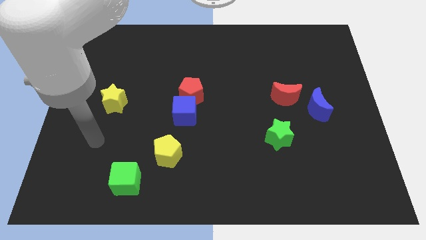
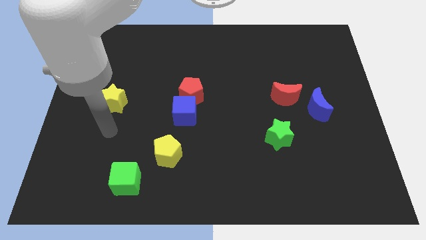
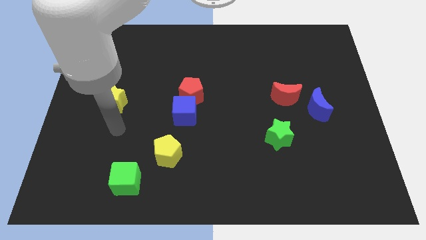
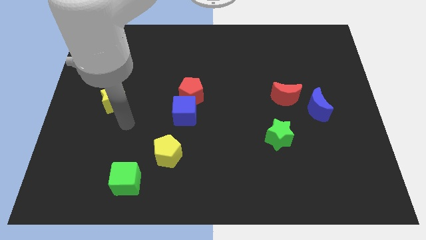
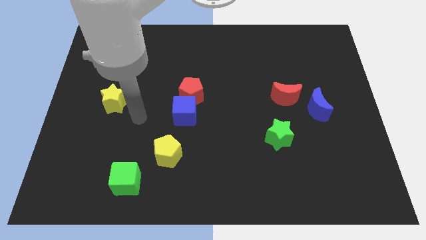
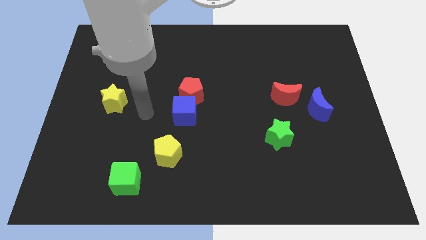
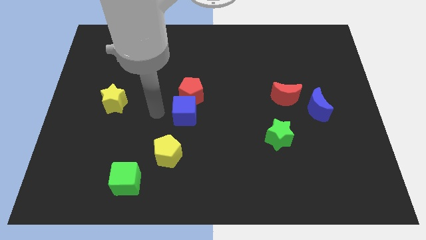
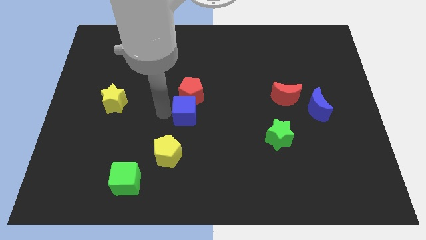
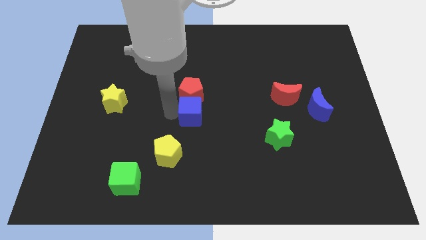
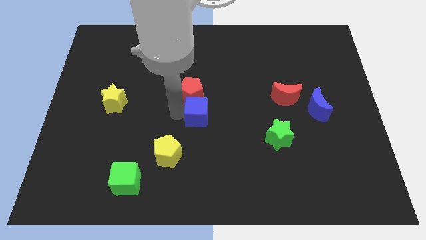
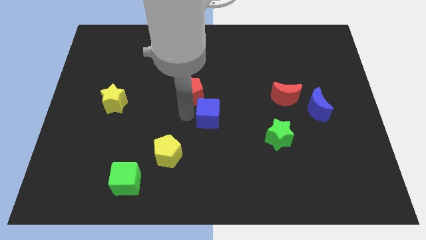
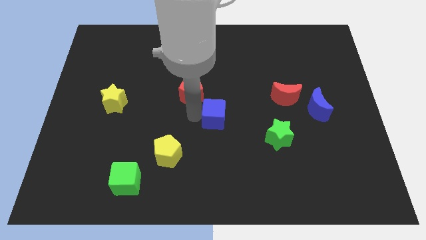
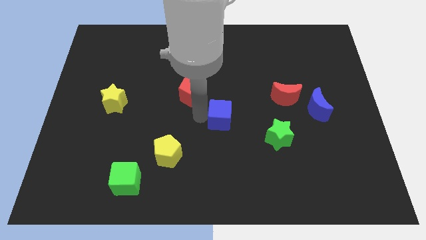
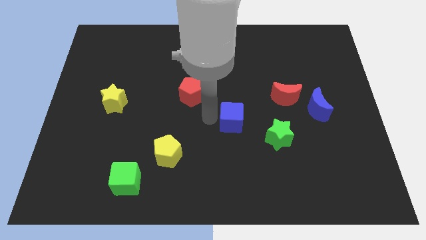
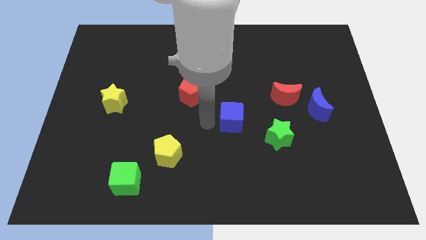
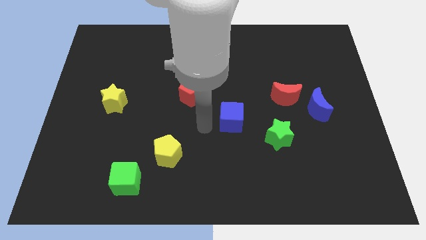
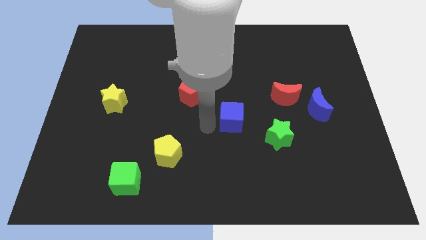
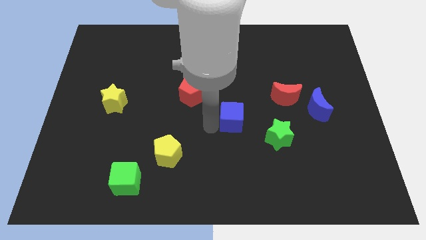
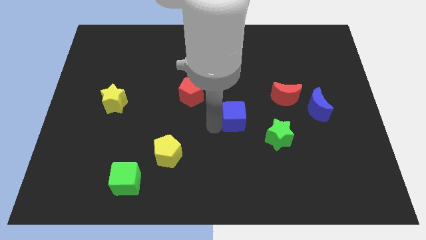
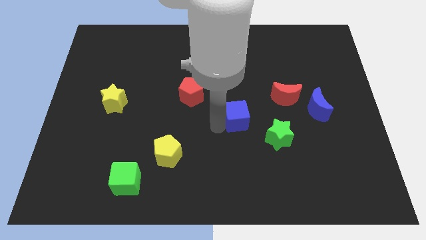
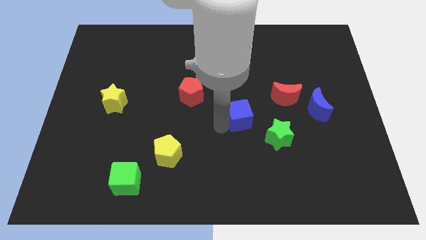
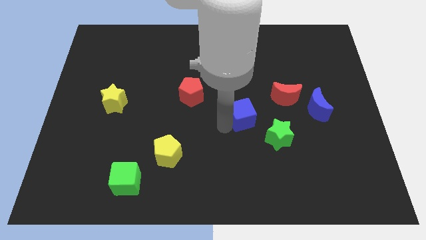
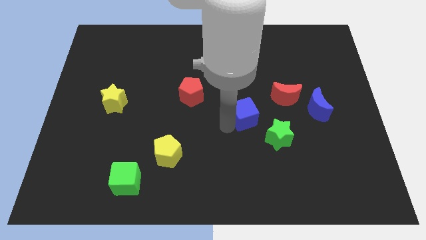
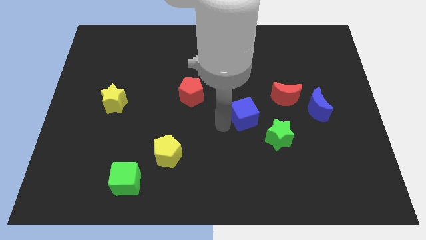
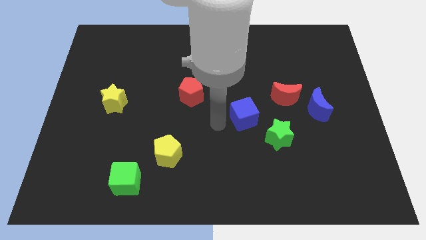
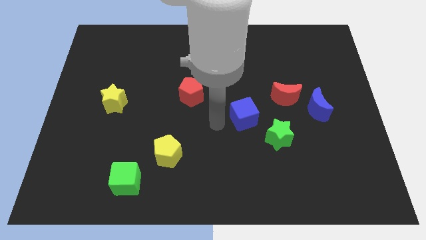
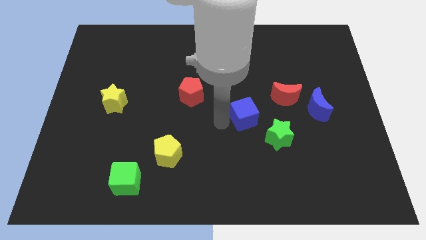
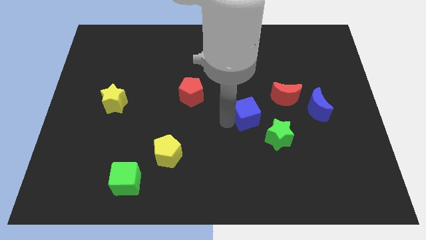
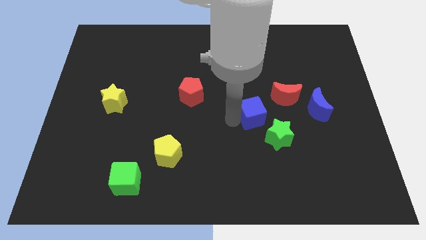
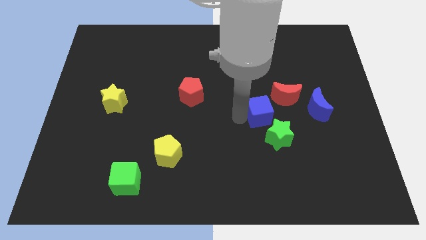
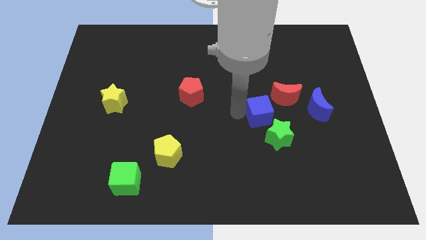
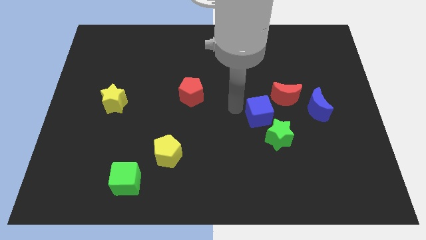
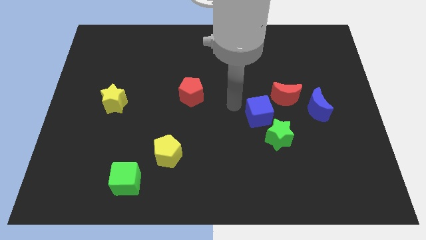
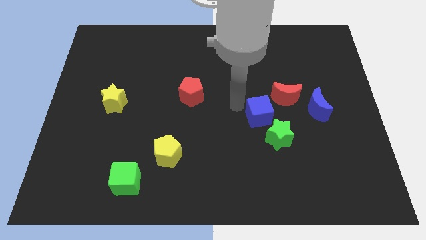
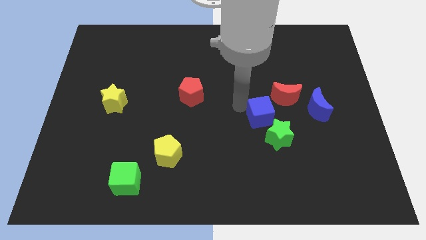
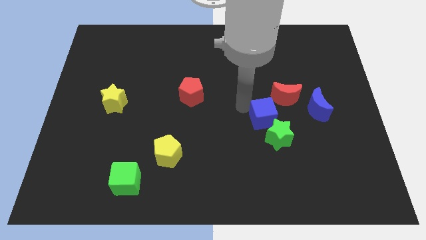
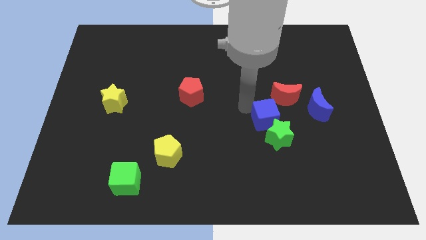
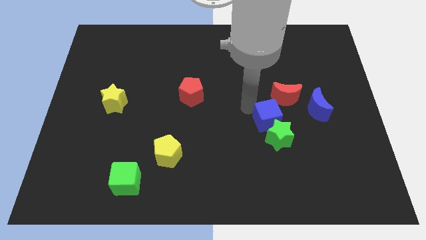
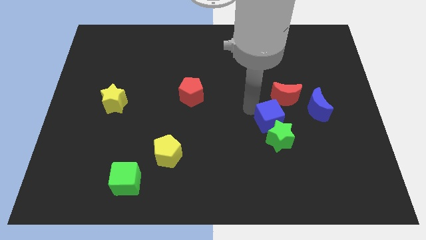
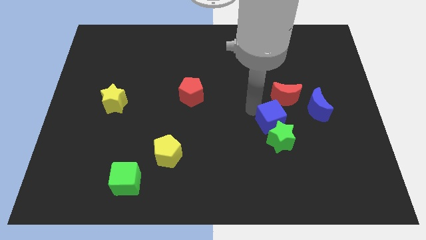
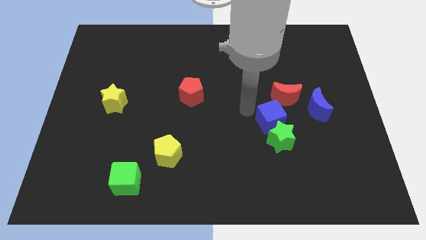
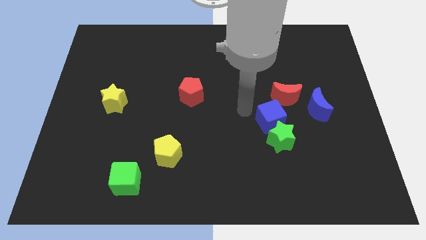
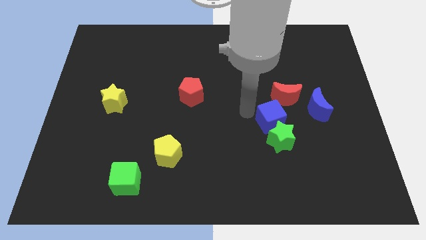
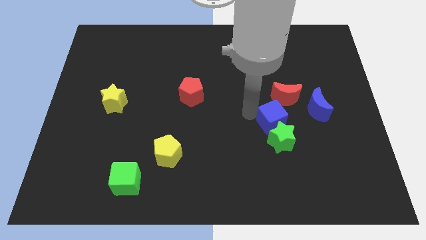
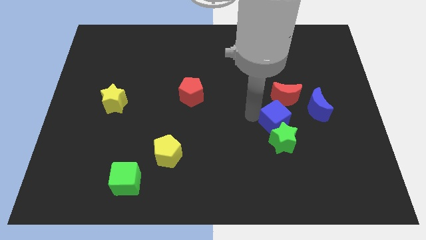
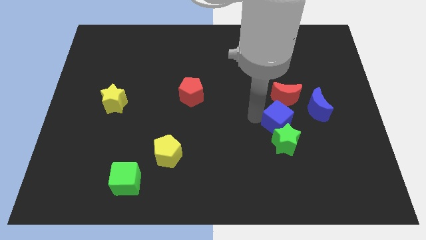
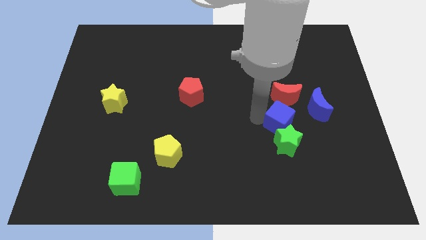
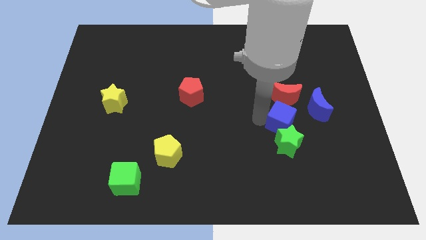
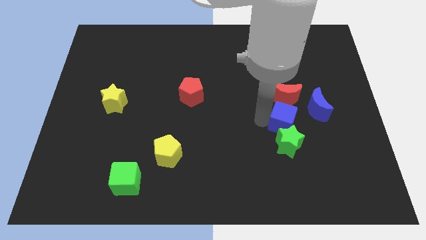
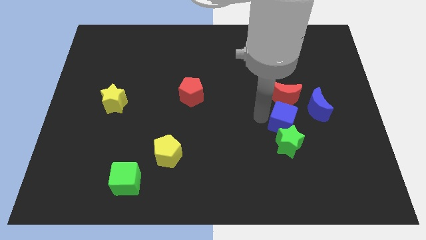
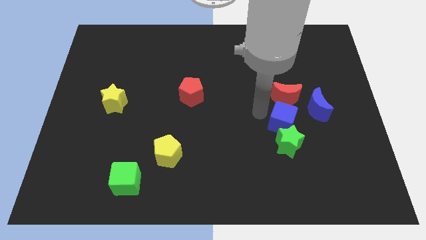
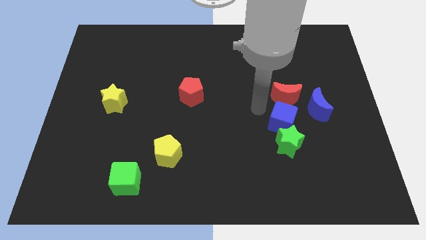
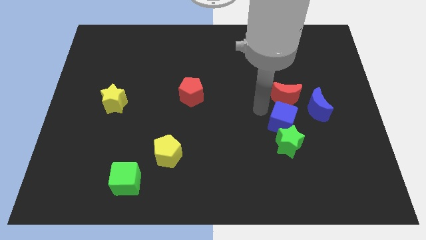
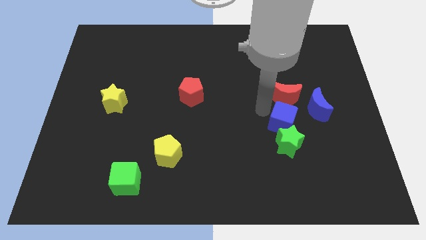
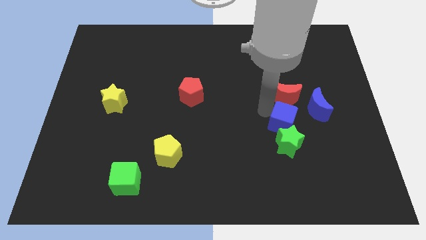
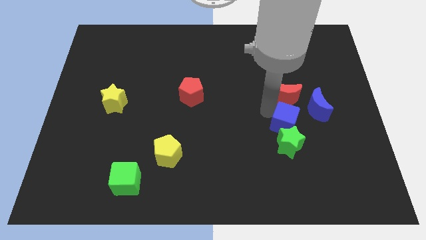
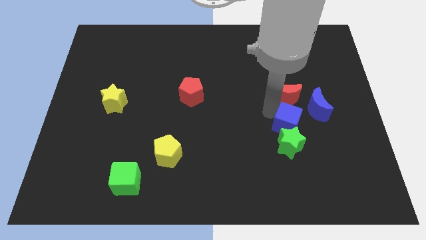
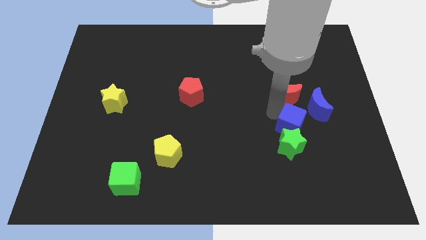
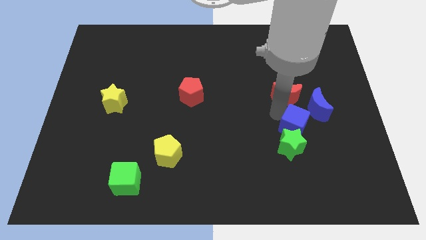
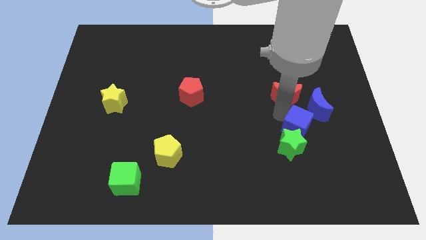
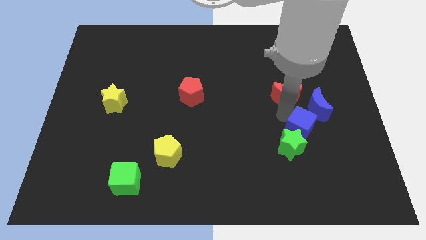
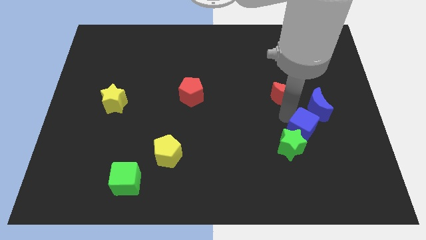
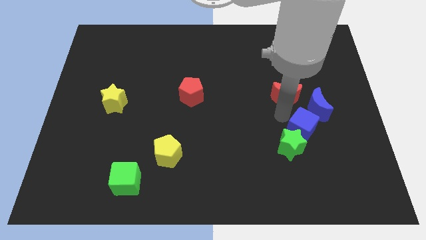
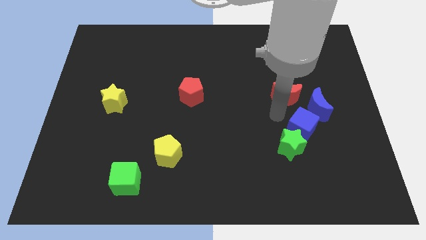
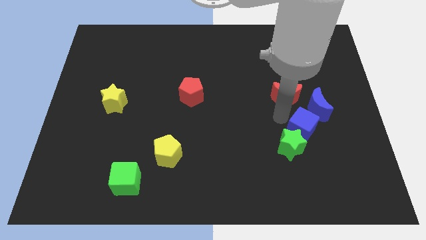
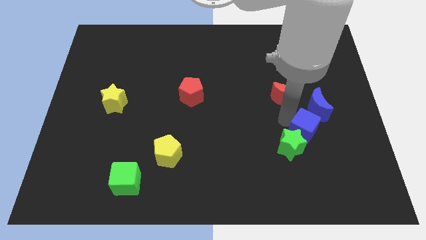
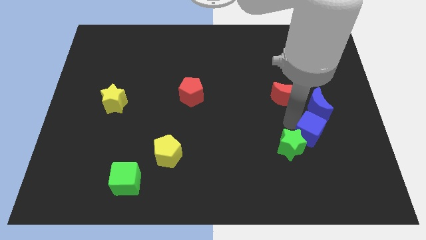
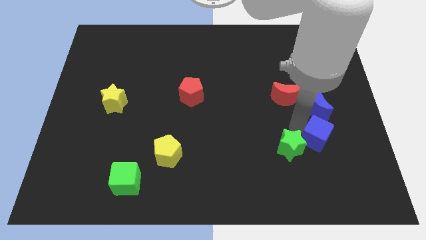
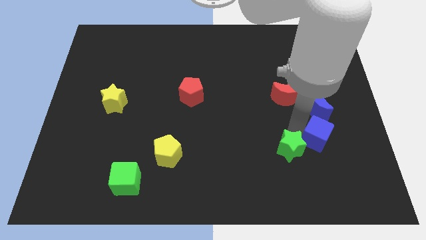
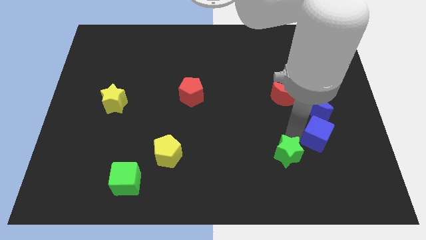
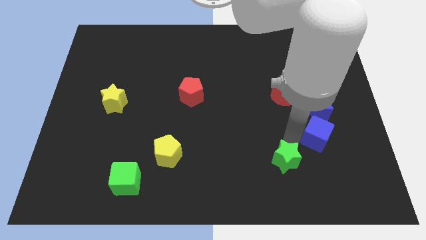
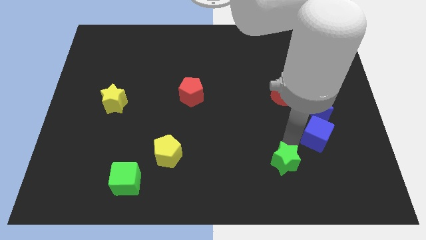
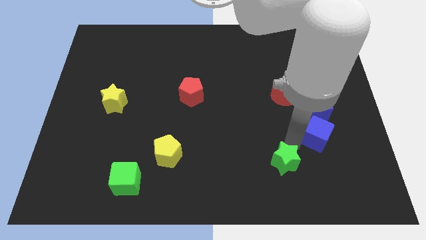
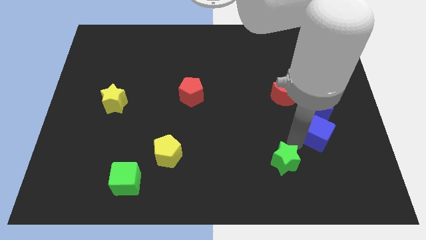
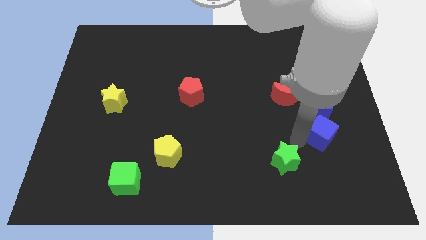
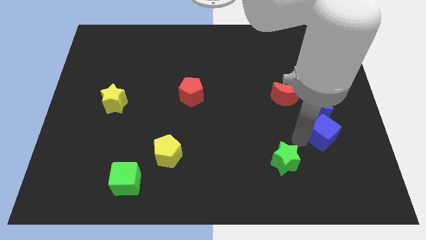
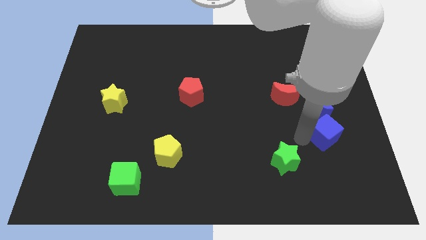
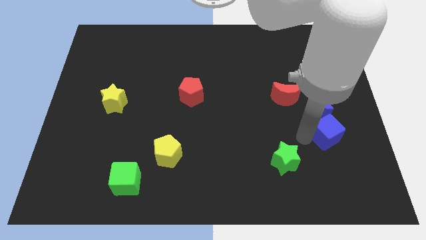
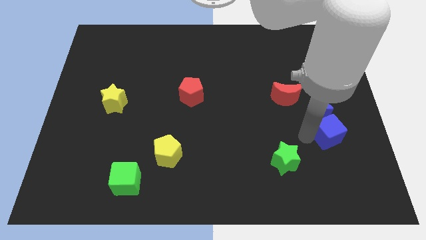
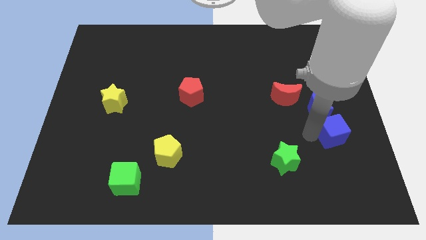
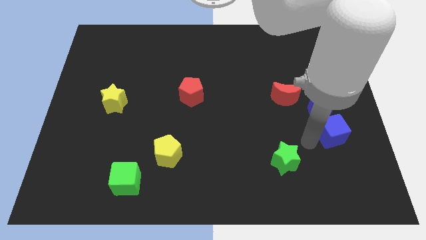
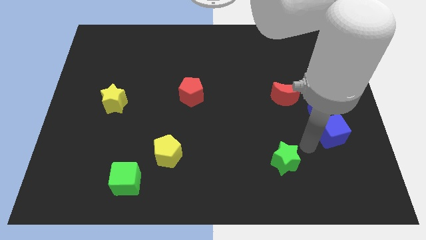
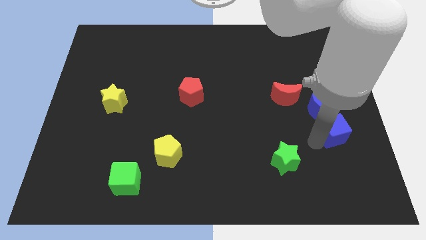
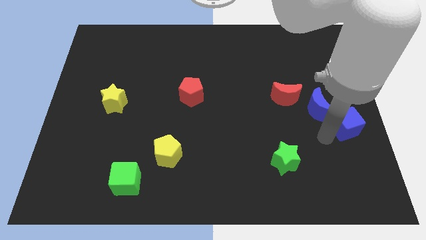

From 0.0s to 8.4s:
push the blue cube to the right side of the board
